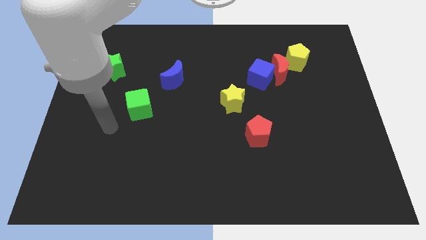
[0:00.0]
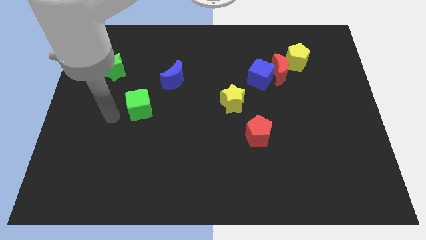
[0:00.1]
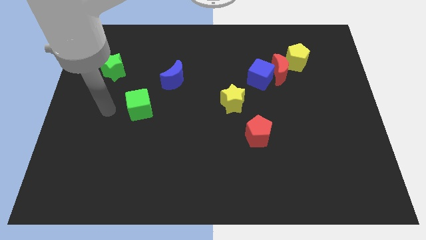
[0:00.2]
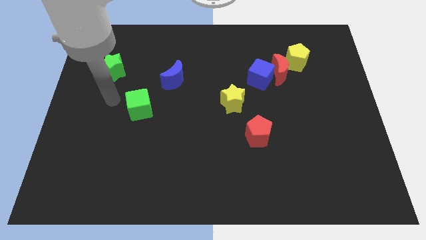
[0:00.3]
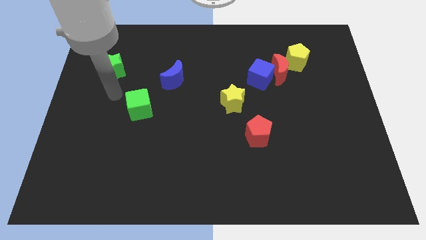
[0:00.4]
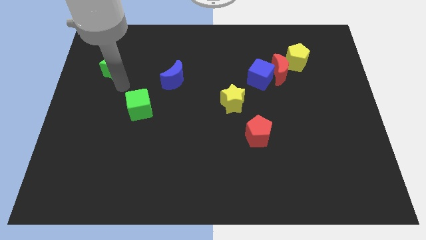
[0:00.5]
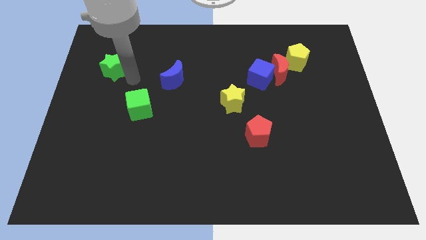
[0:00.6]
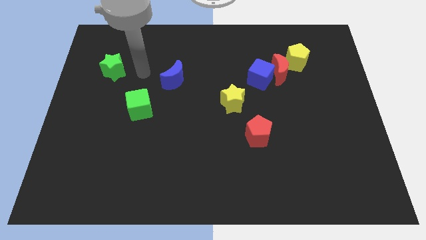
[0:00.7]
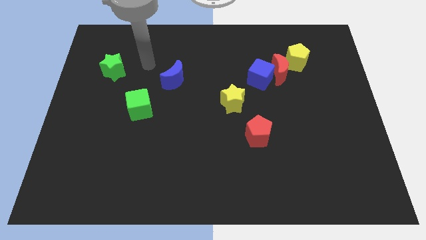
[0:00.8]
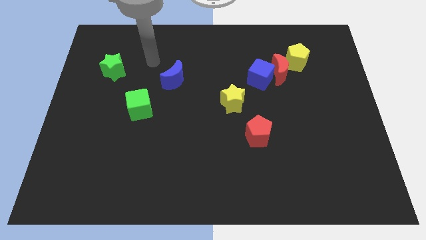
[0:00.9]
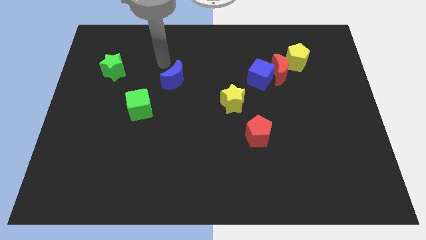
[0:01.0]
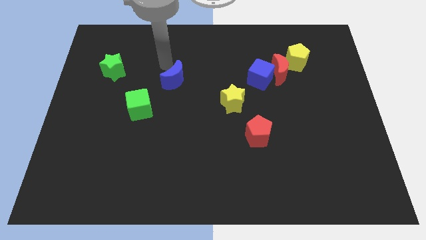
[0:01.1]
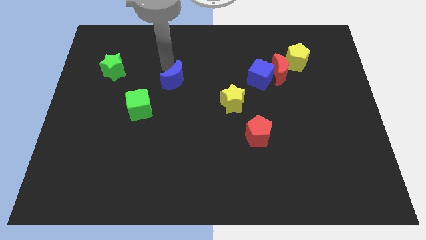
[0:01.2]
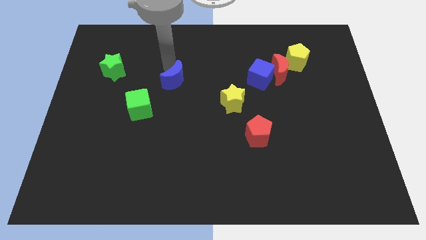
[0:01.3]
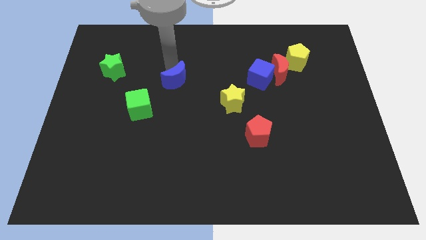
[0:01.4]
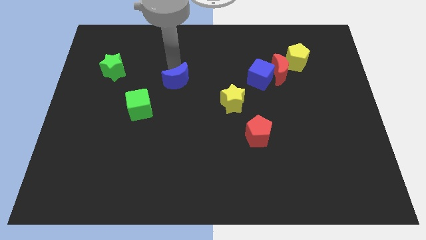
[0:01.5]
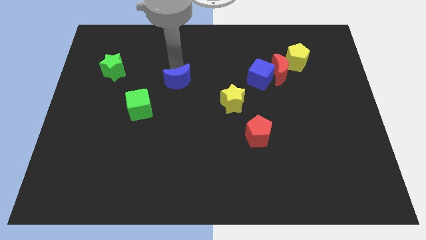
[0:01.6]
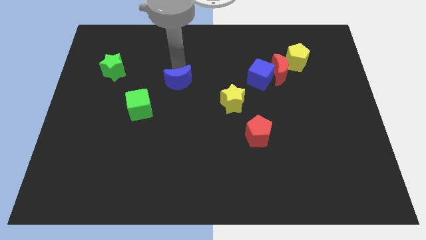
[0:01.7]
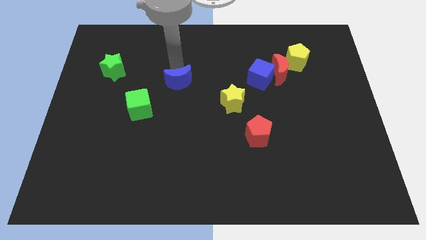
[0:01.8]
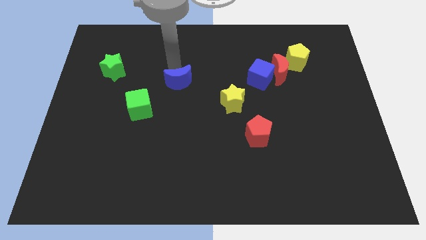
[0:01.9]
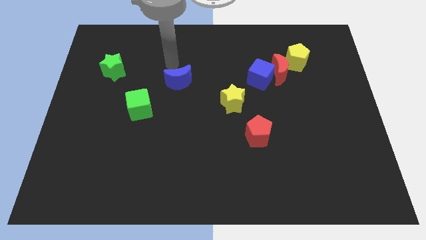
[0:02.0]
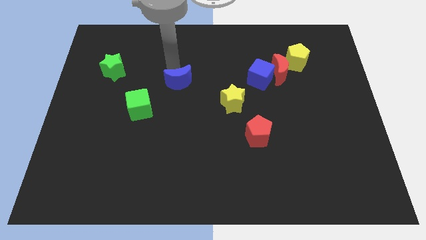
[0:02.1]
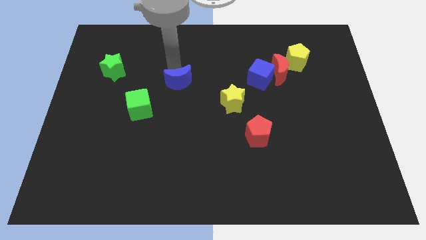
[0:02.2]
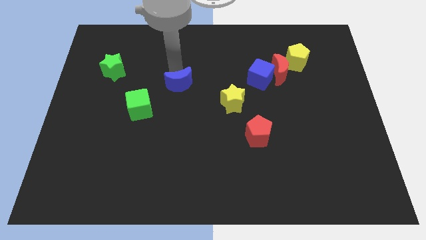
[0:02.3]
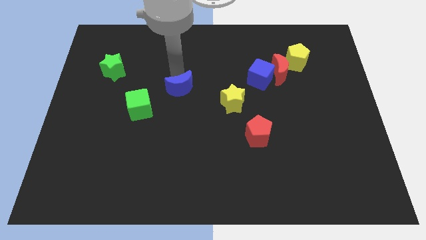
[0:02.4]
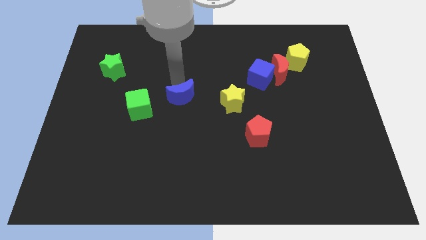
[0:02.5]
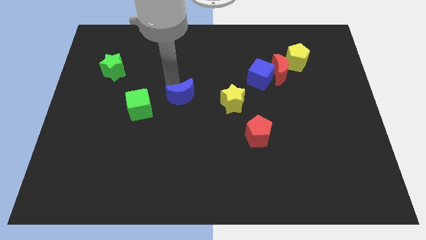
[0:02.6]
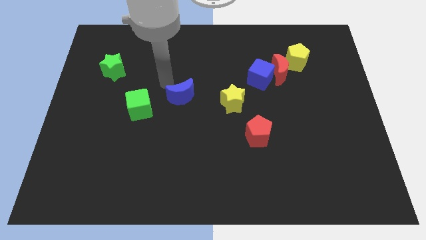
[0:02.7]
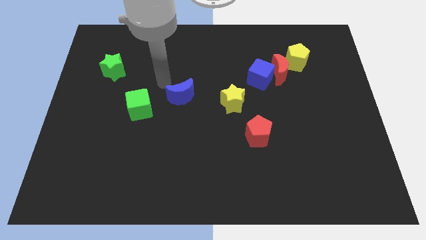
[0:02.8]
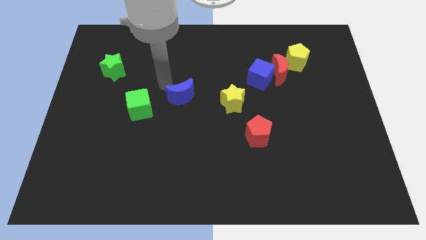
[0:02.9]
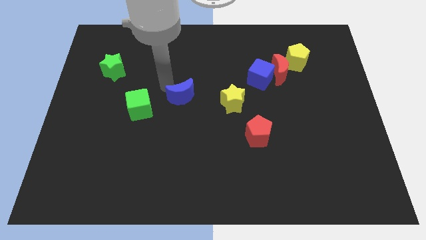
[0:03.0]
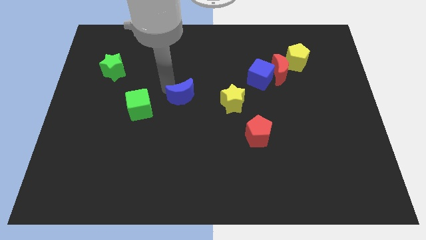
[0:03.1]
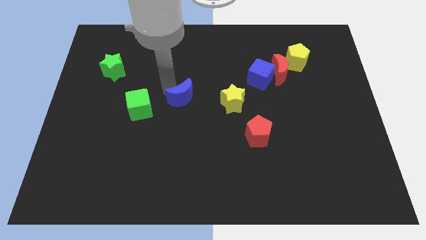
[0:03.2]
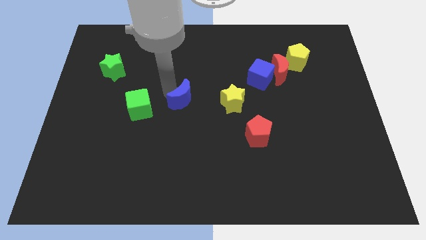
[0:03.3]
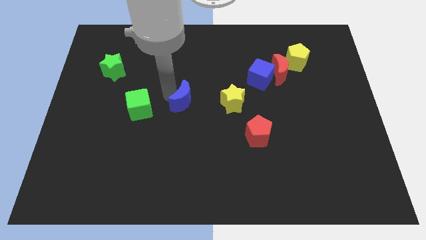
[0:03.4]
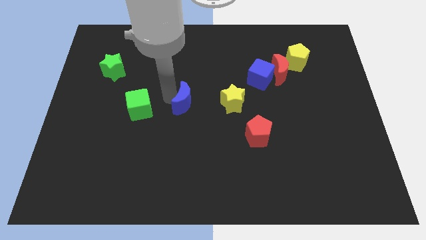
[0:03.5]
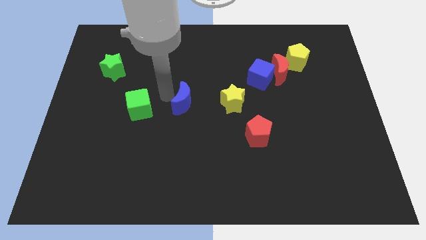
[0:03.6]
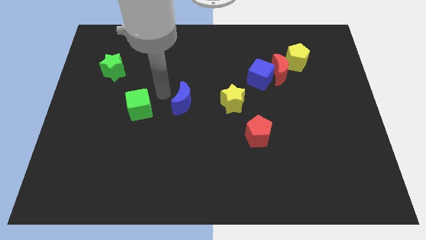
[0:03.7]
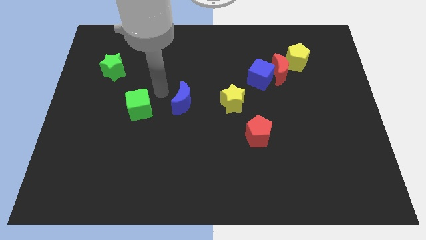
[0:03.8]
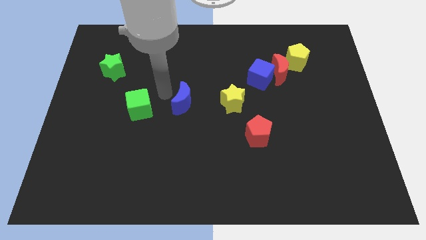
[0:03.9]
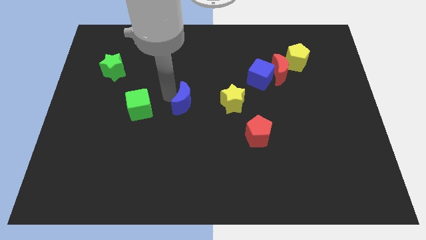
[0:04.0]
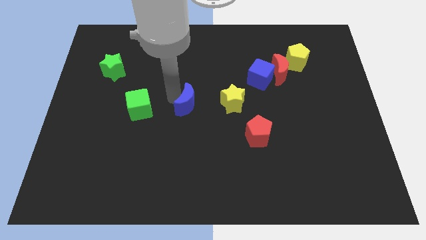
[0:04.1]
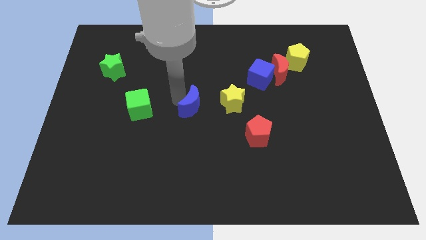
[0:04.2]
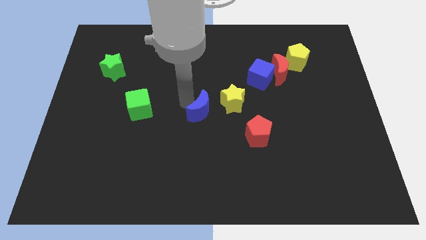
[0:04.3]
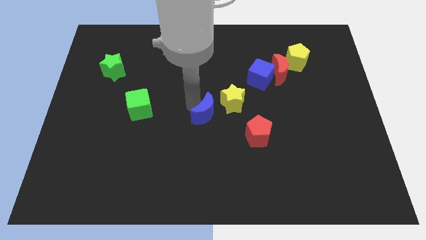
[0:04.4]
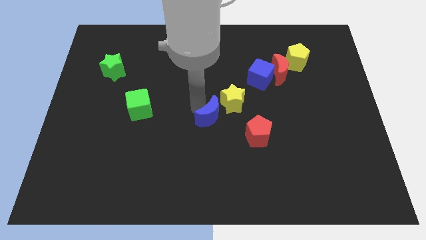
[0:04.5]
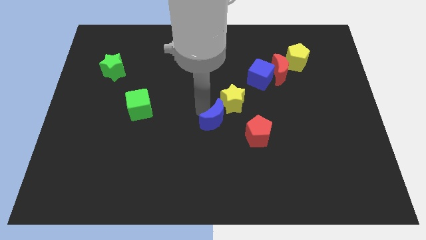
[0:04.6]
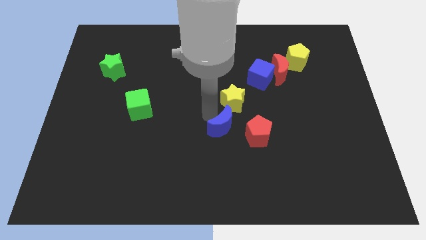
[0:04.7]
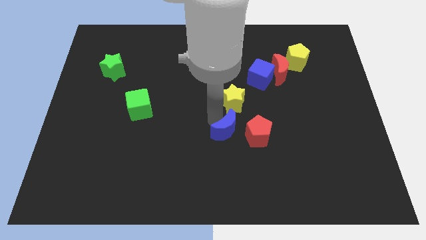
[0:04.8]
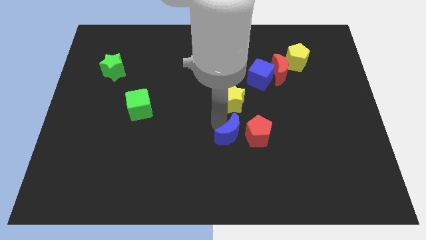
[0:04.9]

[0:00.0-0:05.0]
push the blue moon diagonally downwards and right

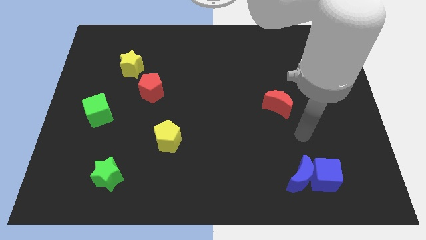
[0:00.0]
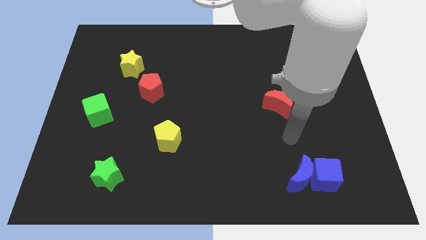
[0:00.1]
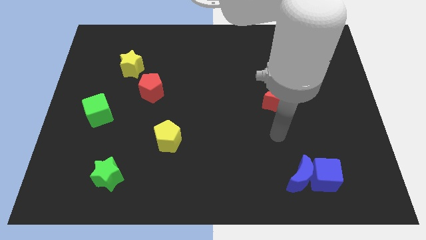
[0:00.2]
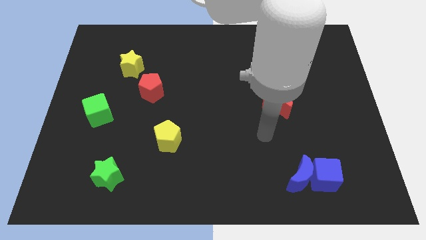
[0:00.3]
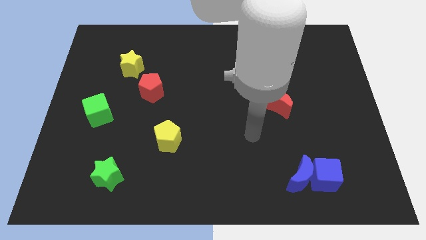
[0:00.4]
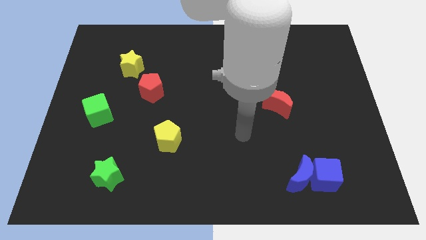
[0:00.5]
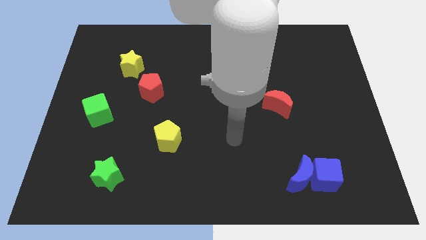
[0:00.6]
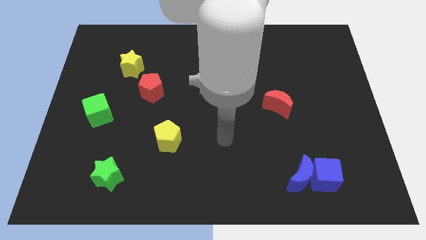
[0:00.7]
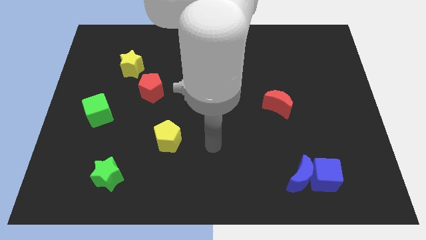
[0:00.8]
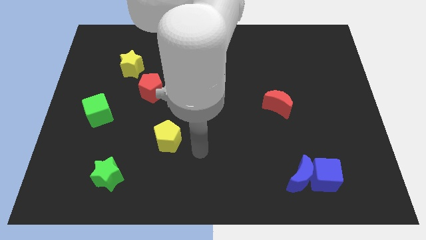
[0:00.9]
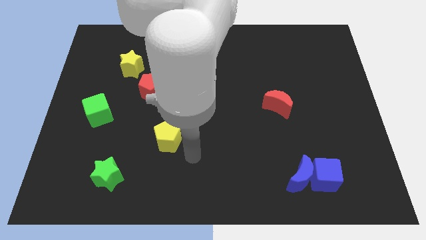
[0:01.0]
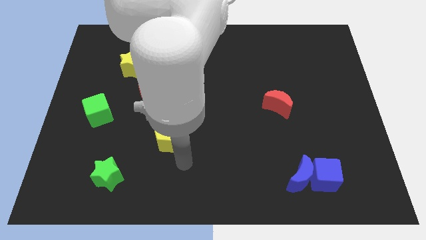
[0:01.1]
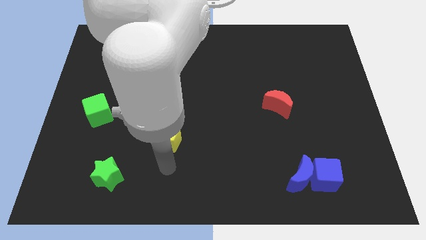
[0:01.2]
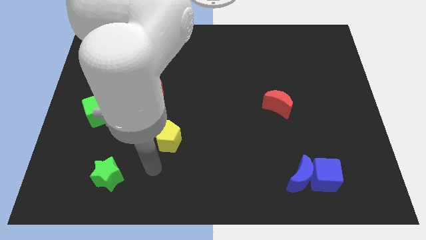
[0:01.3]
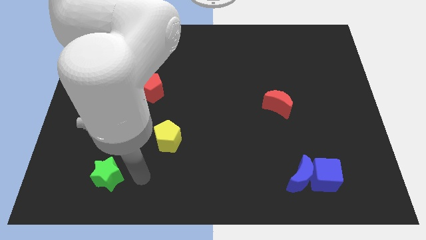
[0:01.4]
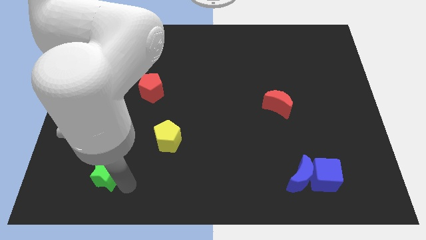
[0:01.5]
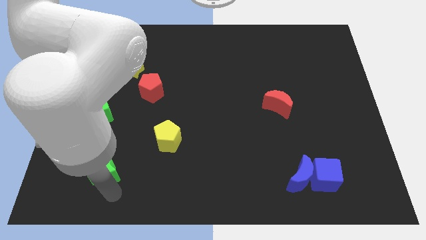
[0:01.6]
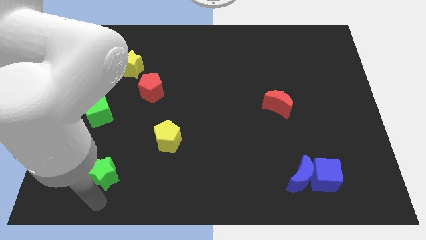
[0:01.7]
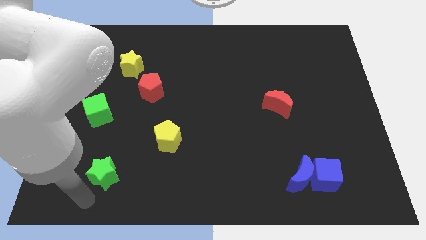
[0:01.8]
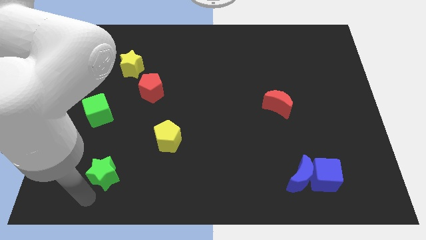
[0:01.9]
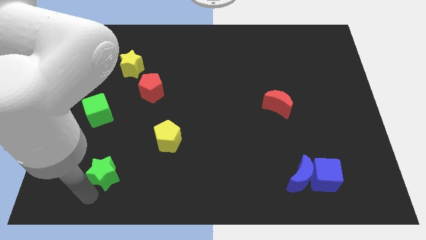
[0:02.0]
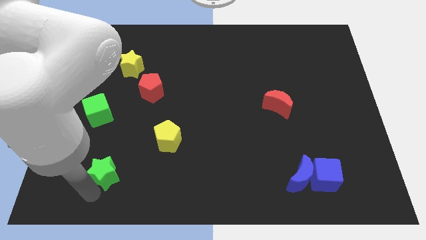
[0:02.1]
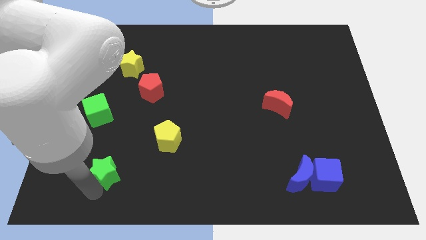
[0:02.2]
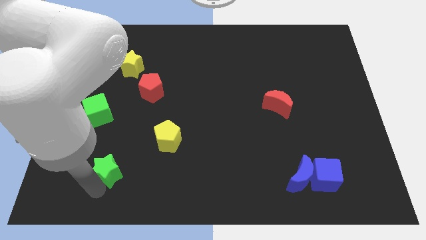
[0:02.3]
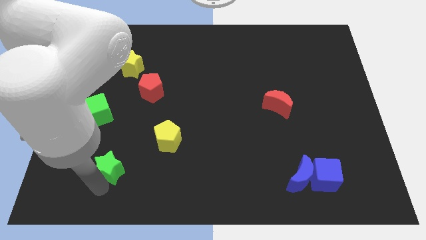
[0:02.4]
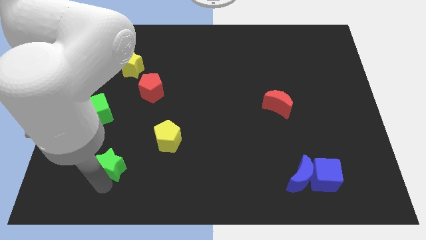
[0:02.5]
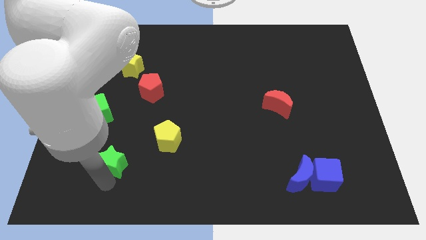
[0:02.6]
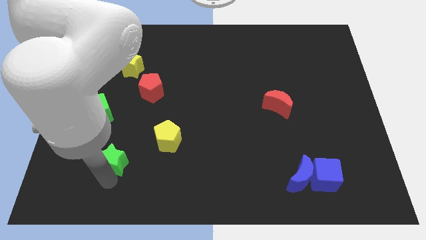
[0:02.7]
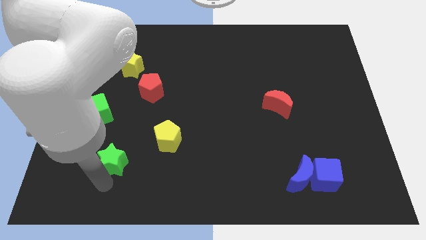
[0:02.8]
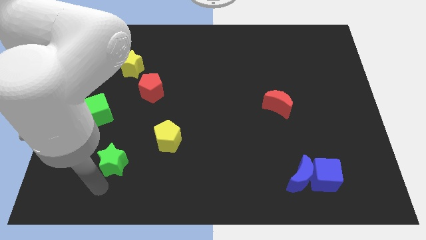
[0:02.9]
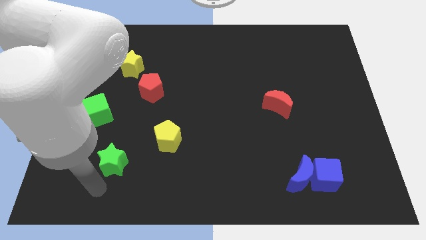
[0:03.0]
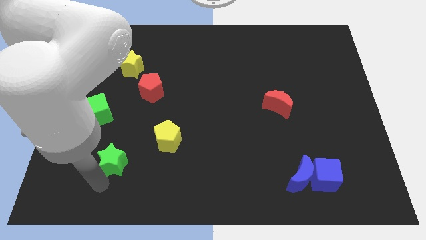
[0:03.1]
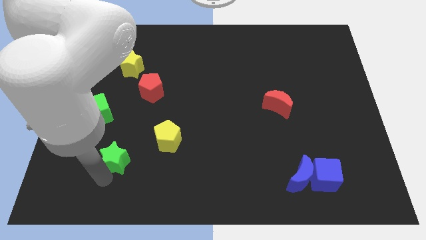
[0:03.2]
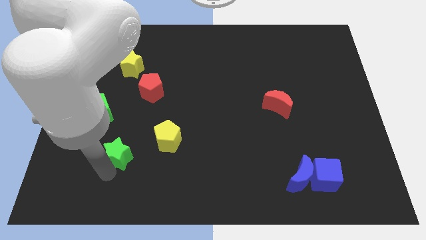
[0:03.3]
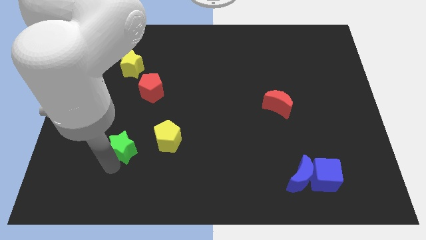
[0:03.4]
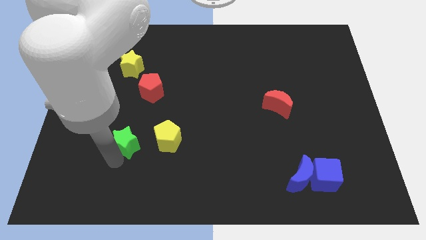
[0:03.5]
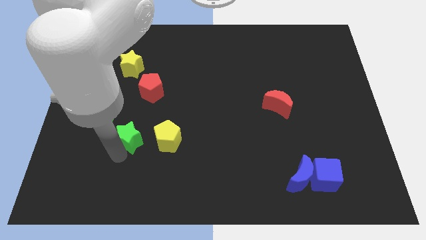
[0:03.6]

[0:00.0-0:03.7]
move the green star a bit up and right
